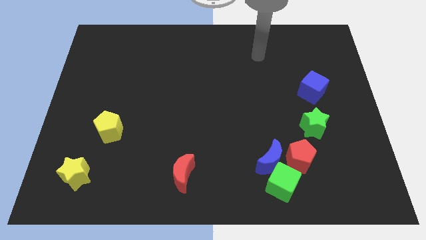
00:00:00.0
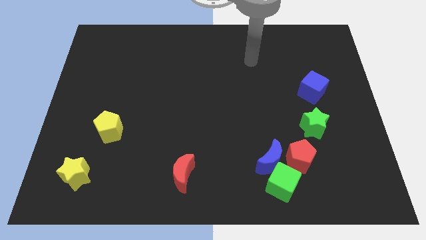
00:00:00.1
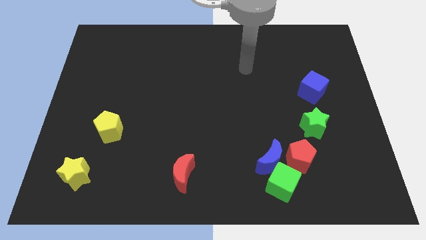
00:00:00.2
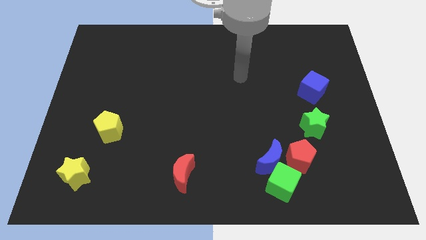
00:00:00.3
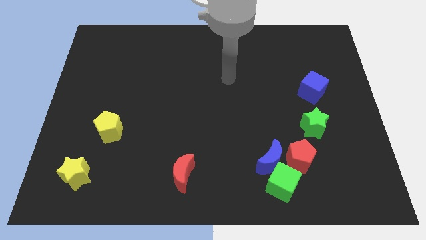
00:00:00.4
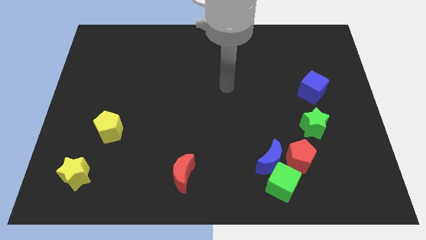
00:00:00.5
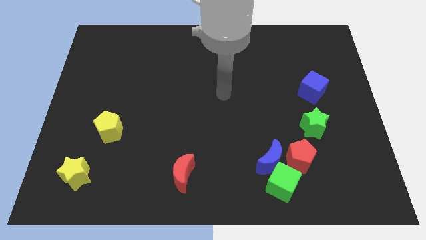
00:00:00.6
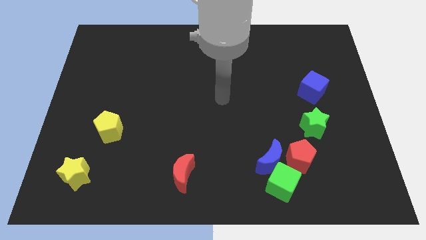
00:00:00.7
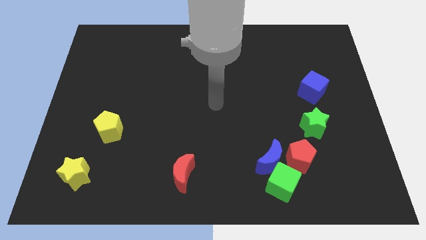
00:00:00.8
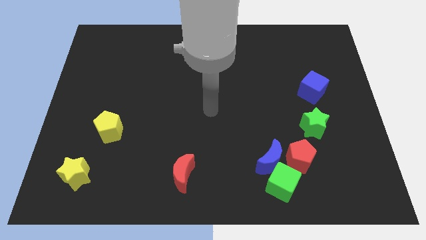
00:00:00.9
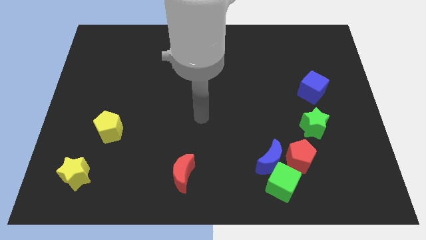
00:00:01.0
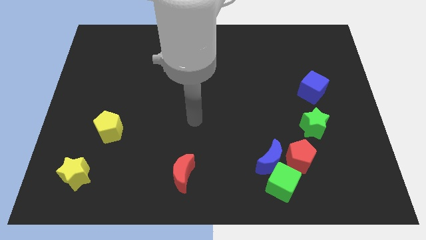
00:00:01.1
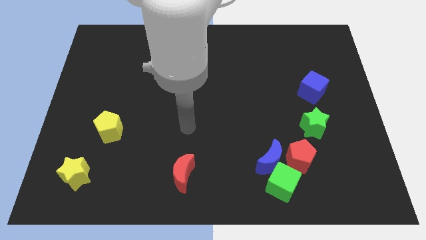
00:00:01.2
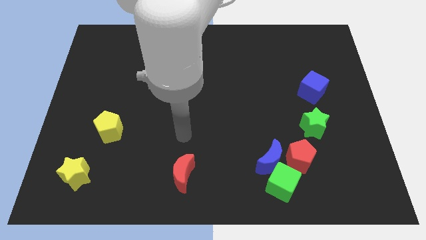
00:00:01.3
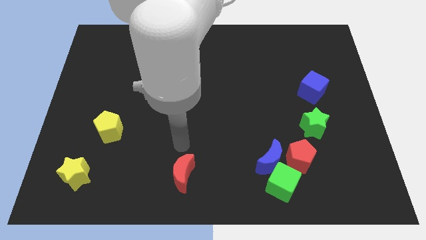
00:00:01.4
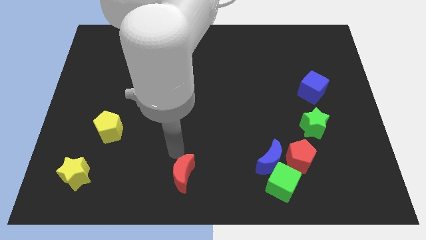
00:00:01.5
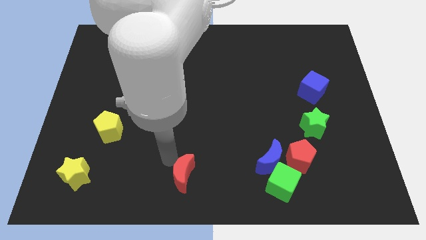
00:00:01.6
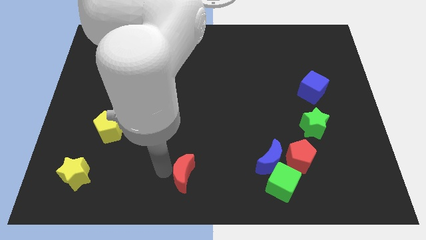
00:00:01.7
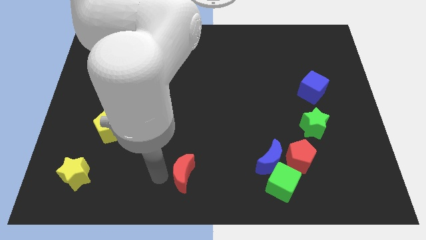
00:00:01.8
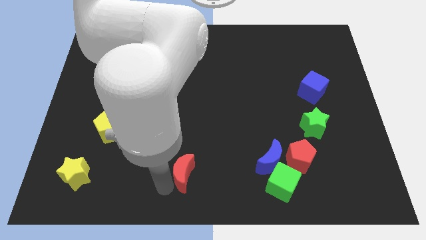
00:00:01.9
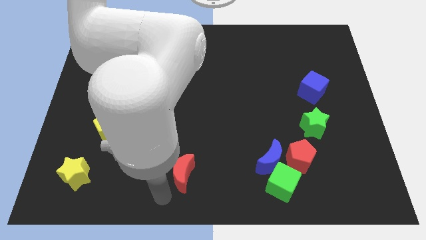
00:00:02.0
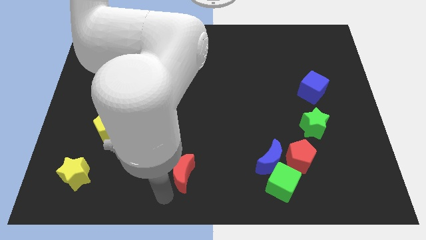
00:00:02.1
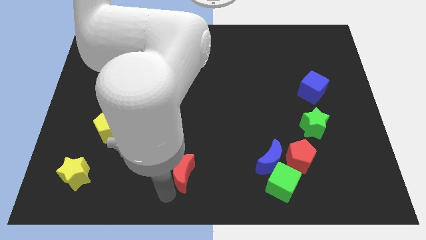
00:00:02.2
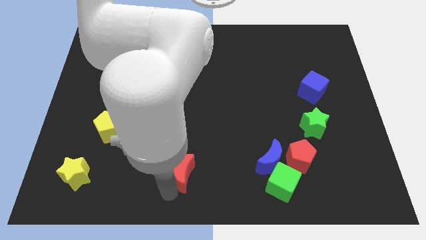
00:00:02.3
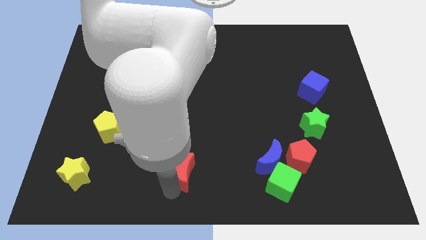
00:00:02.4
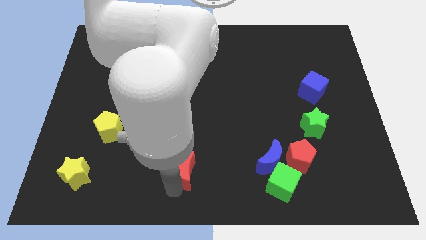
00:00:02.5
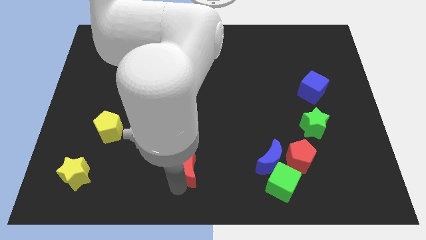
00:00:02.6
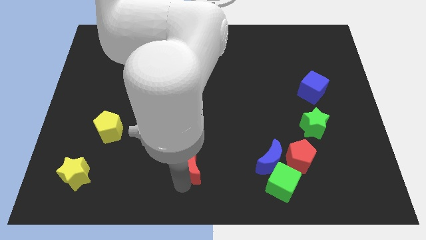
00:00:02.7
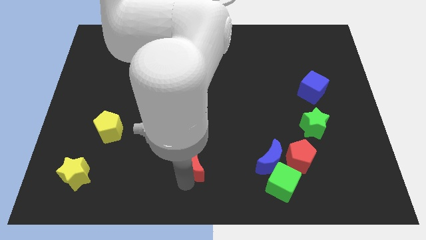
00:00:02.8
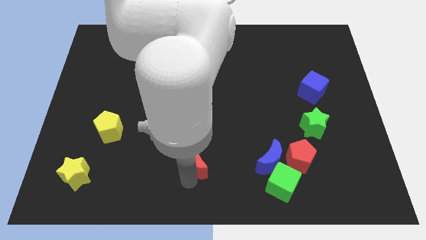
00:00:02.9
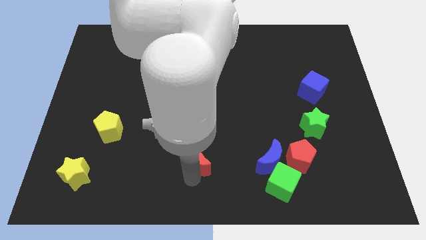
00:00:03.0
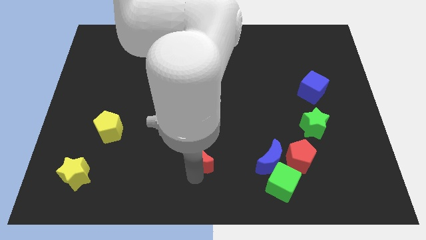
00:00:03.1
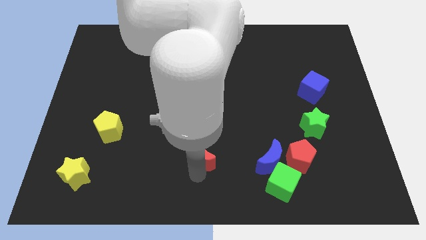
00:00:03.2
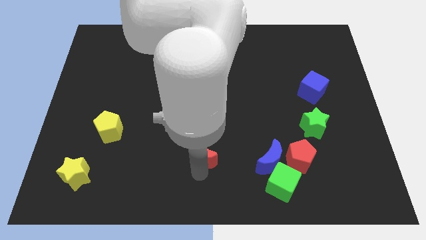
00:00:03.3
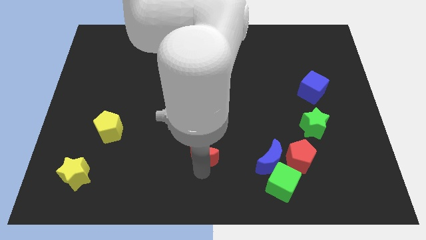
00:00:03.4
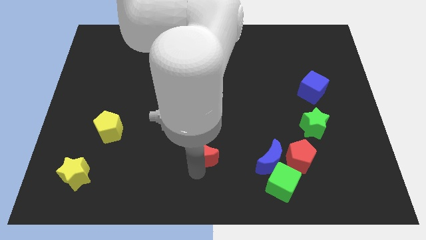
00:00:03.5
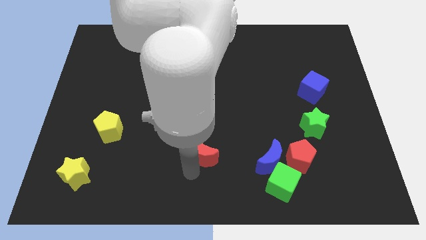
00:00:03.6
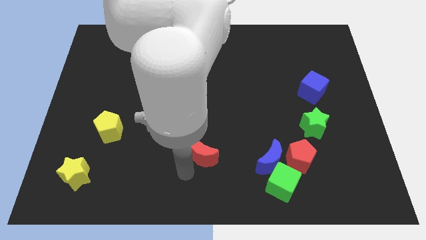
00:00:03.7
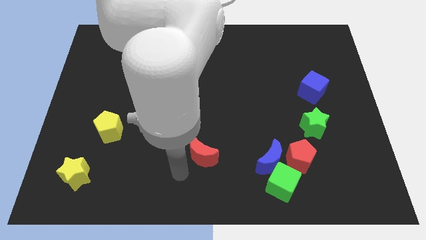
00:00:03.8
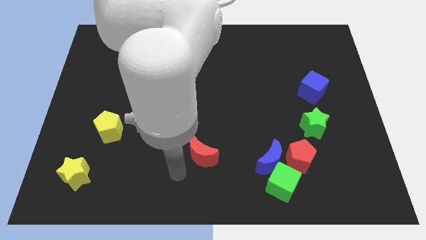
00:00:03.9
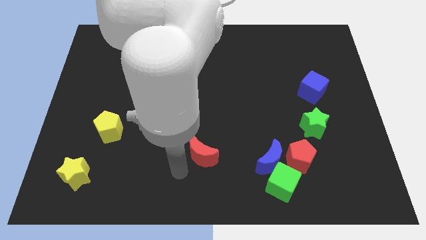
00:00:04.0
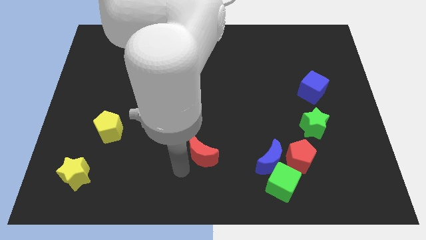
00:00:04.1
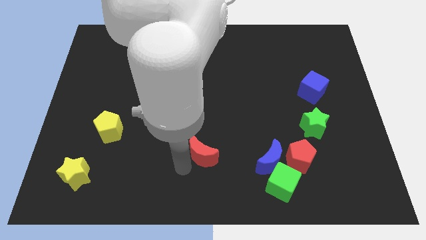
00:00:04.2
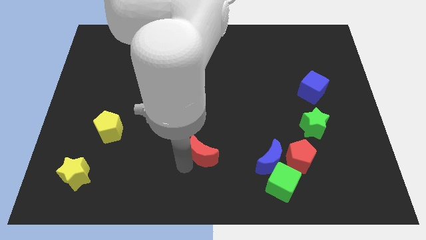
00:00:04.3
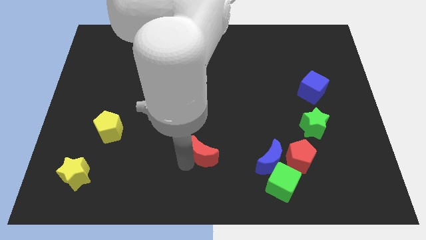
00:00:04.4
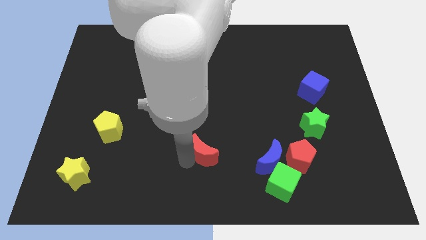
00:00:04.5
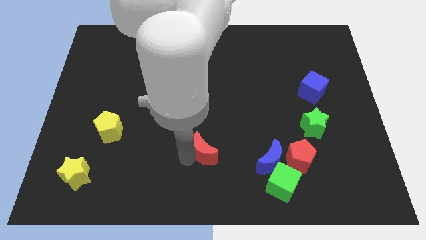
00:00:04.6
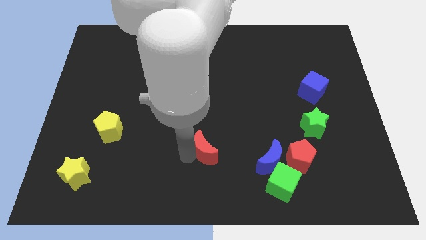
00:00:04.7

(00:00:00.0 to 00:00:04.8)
slightly push the red moon upwards and to the right diagonally

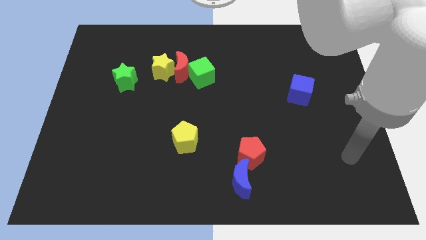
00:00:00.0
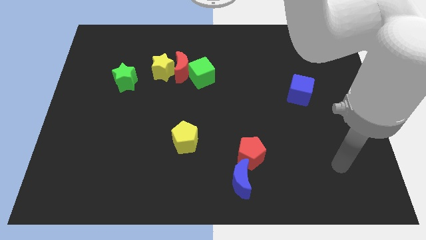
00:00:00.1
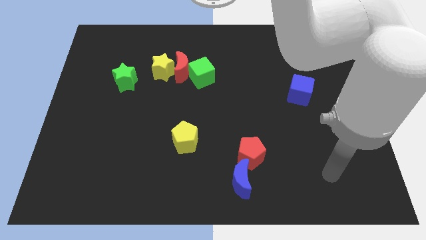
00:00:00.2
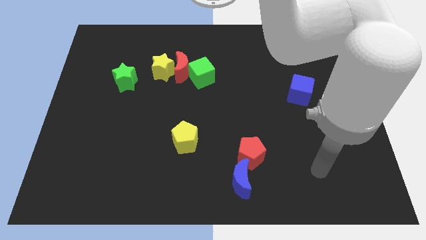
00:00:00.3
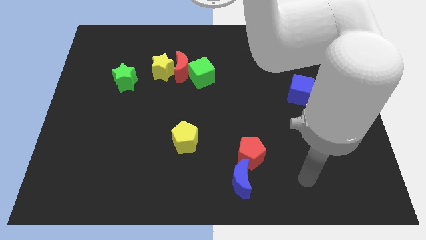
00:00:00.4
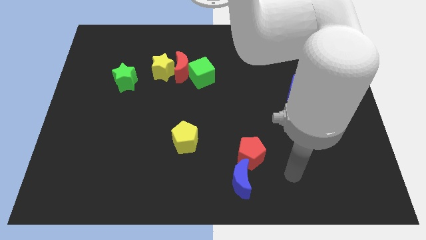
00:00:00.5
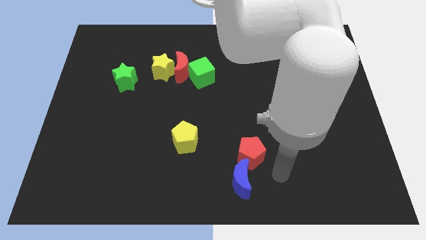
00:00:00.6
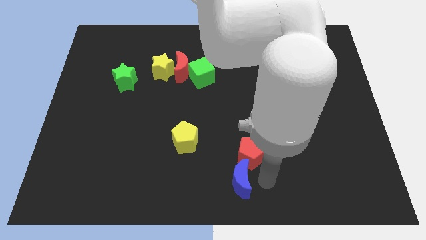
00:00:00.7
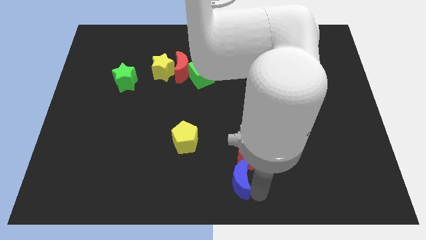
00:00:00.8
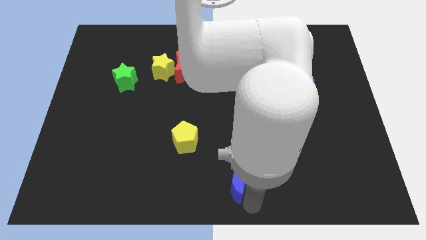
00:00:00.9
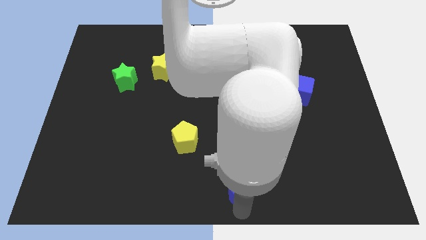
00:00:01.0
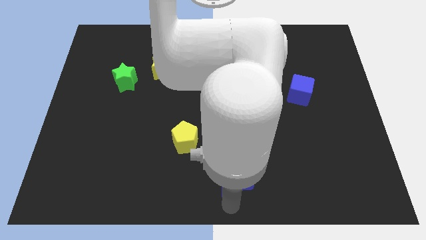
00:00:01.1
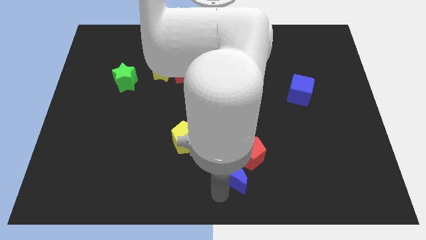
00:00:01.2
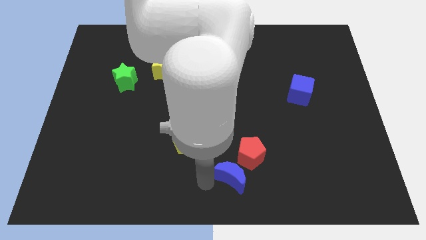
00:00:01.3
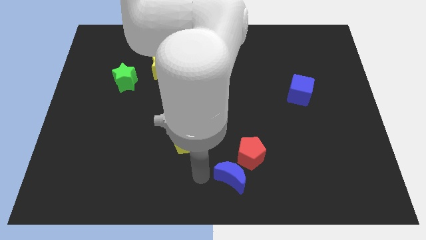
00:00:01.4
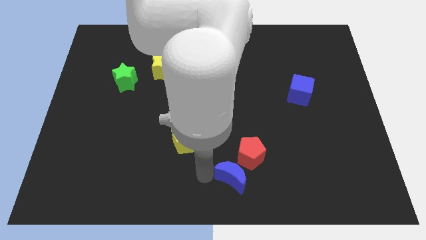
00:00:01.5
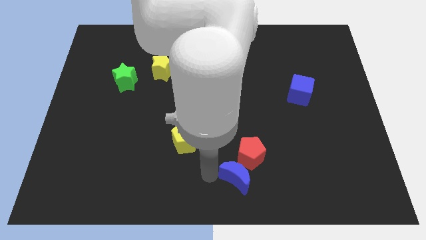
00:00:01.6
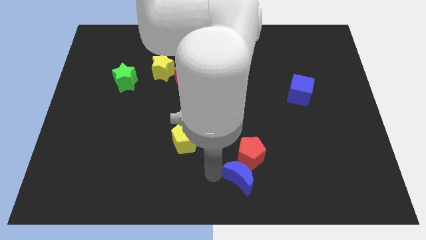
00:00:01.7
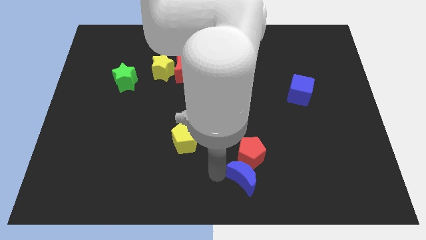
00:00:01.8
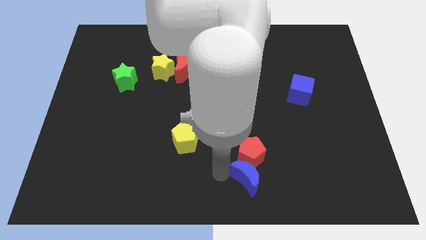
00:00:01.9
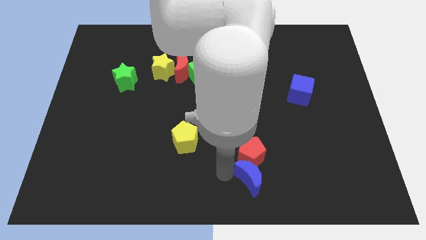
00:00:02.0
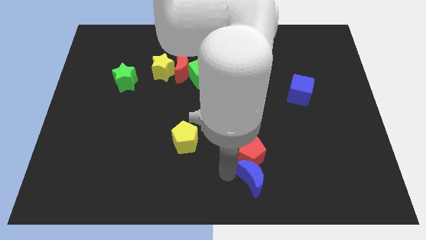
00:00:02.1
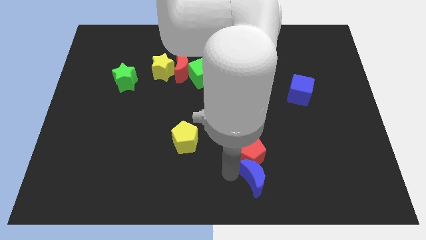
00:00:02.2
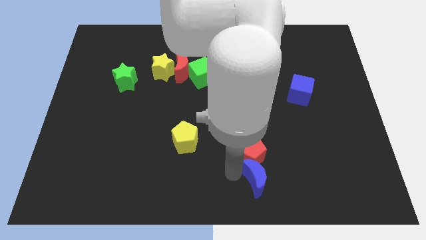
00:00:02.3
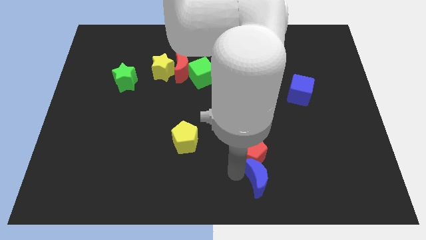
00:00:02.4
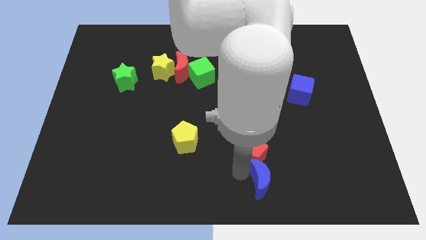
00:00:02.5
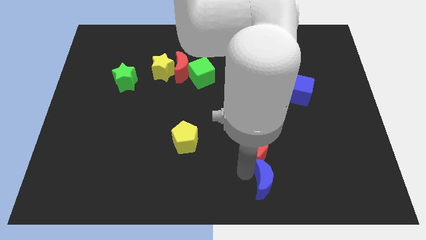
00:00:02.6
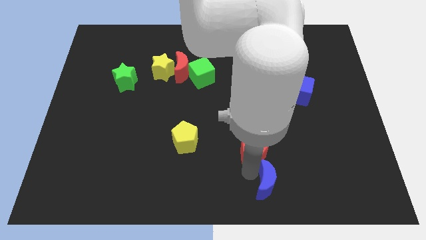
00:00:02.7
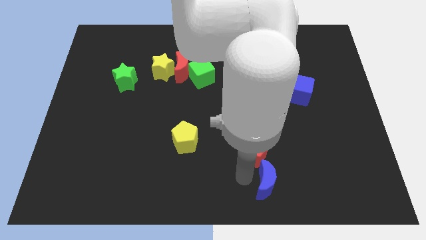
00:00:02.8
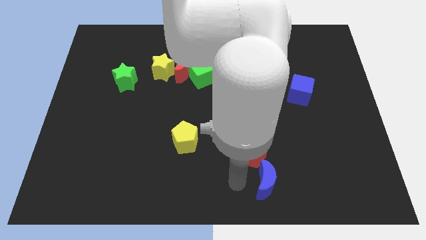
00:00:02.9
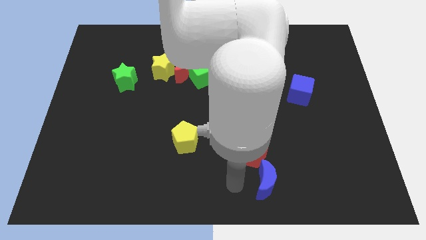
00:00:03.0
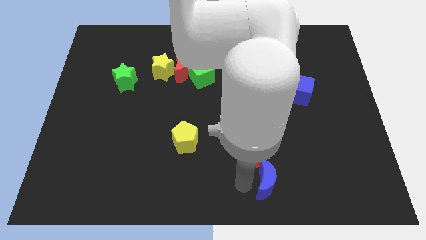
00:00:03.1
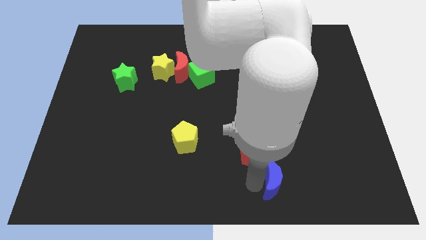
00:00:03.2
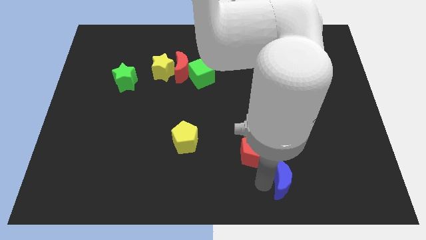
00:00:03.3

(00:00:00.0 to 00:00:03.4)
slide the blue moon to the right somewhat

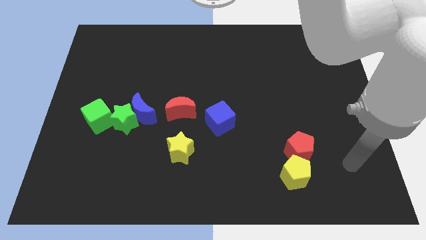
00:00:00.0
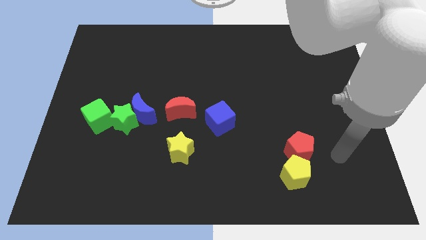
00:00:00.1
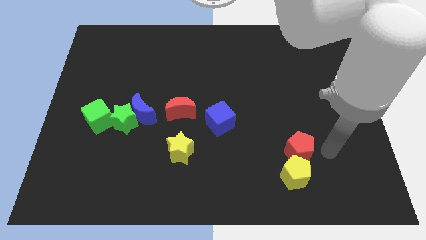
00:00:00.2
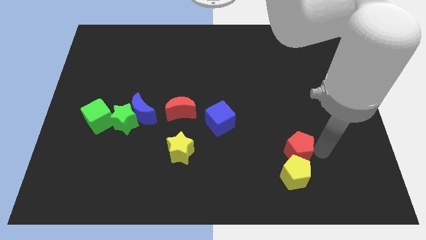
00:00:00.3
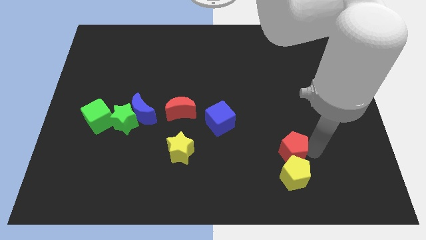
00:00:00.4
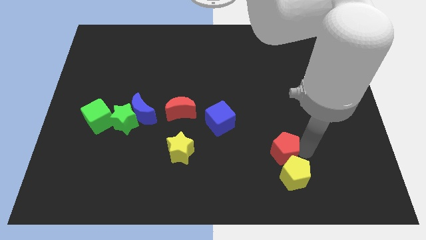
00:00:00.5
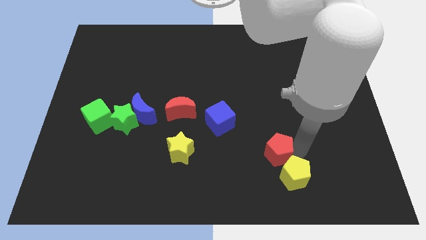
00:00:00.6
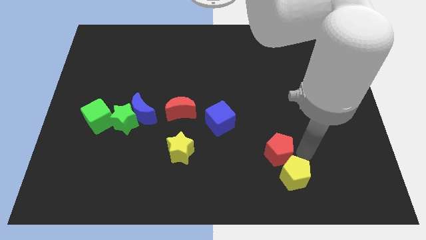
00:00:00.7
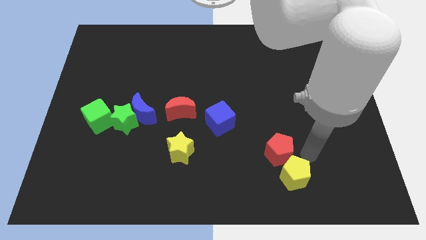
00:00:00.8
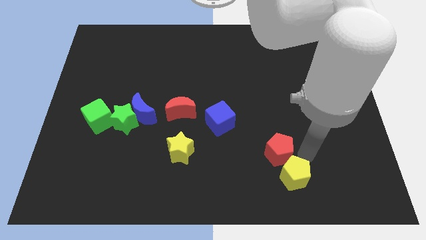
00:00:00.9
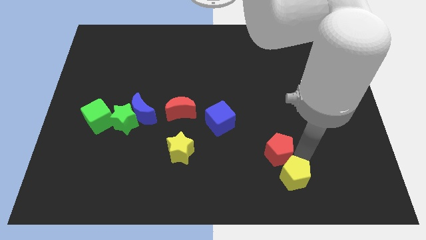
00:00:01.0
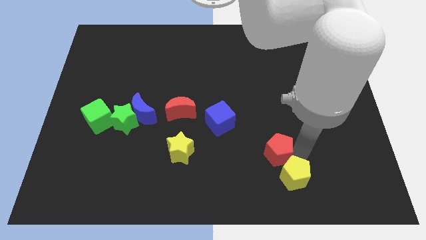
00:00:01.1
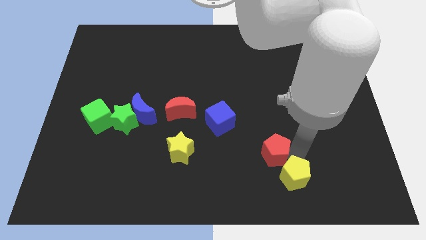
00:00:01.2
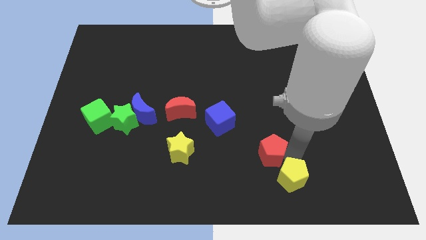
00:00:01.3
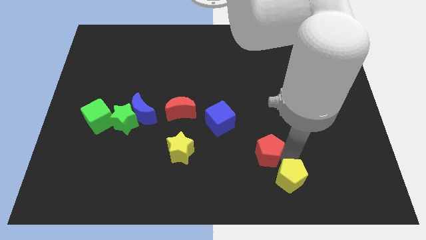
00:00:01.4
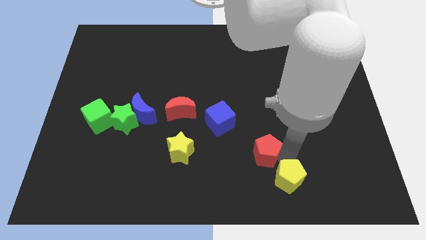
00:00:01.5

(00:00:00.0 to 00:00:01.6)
slightly move the red pentagon to the left
